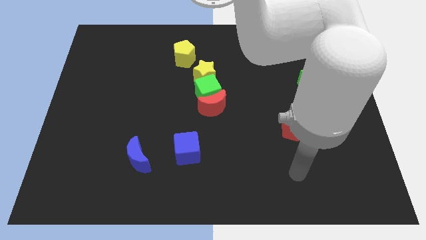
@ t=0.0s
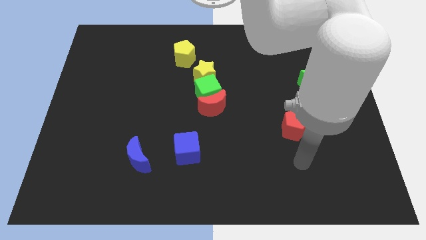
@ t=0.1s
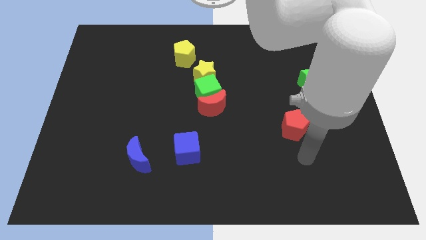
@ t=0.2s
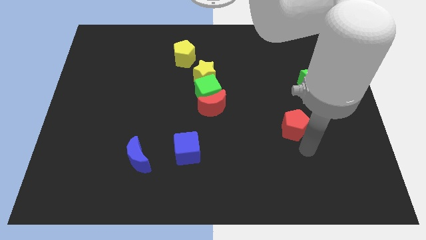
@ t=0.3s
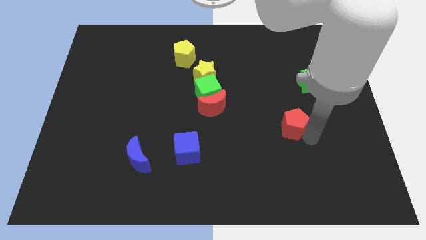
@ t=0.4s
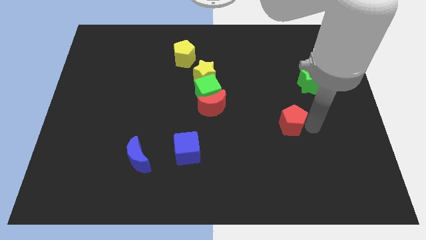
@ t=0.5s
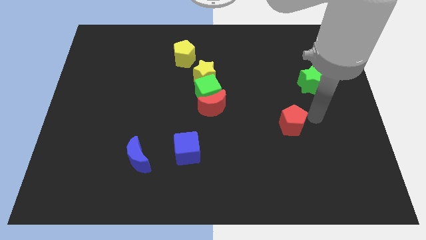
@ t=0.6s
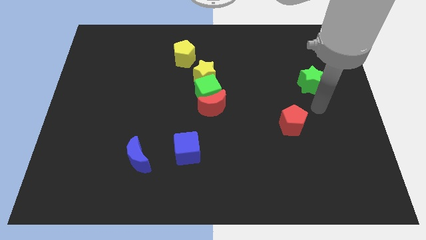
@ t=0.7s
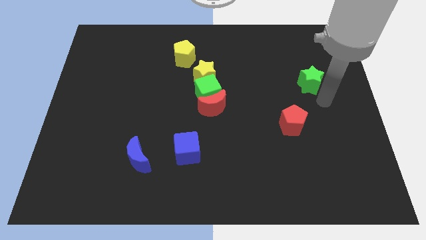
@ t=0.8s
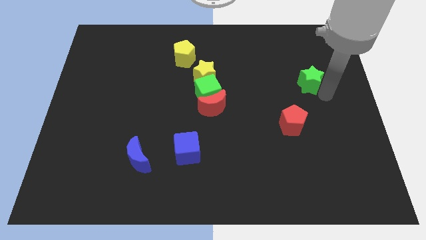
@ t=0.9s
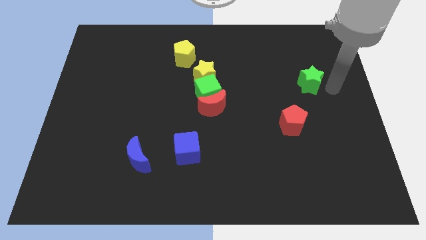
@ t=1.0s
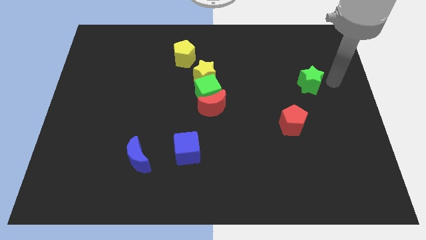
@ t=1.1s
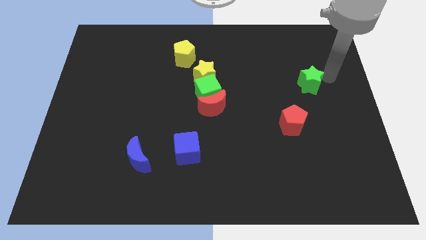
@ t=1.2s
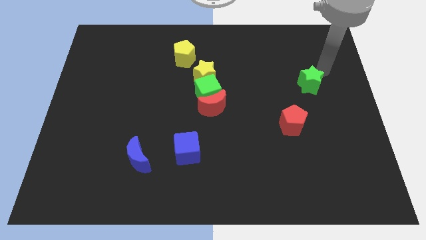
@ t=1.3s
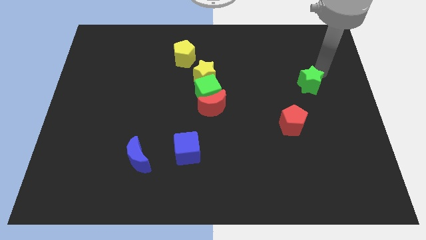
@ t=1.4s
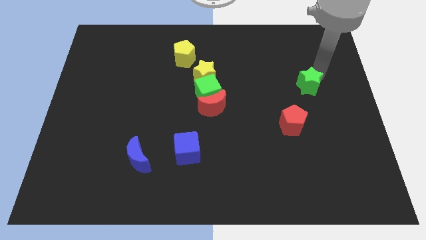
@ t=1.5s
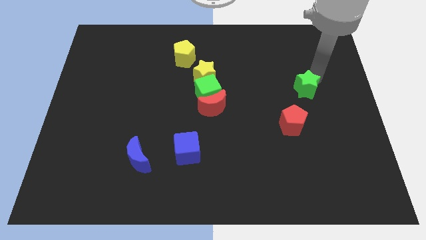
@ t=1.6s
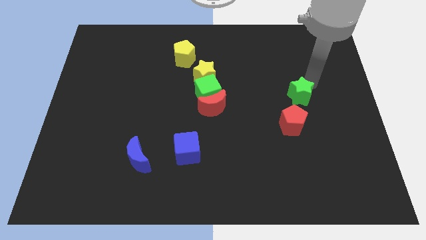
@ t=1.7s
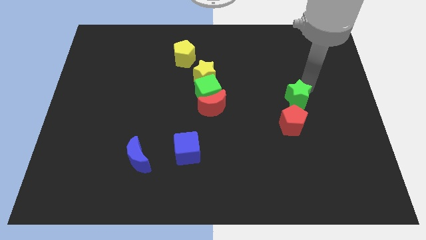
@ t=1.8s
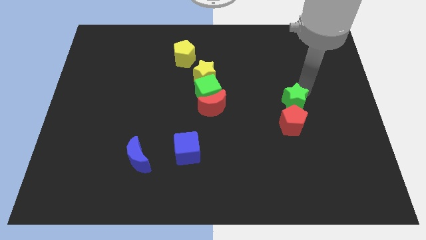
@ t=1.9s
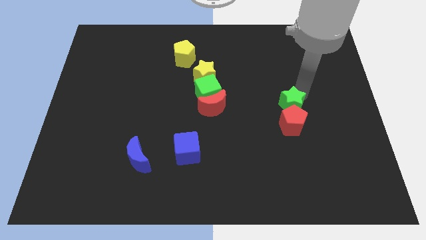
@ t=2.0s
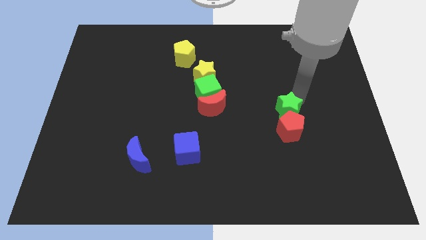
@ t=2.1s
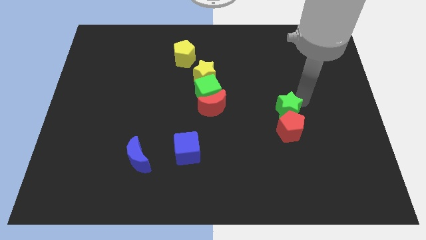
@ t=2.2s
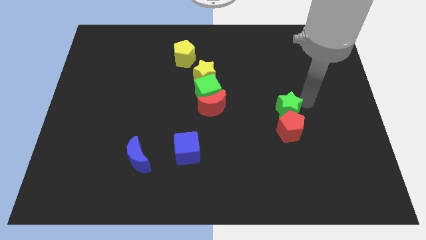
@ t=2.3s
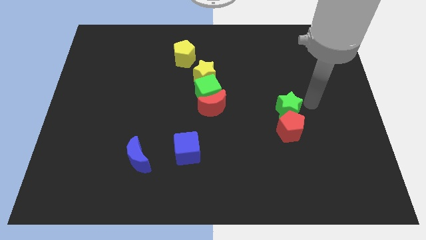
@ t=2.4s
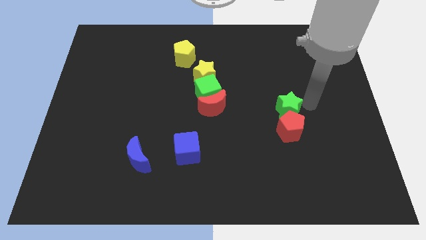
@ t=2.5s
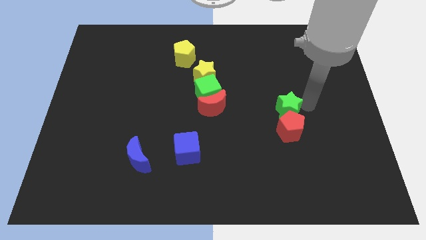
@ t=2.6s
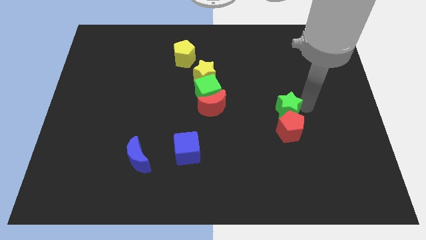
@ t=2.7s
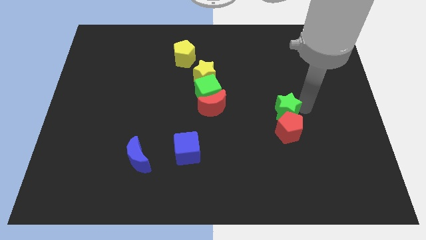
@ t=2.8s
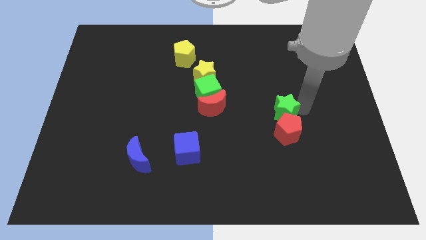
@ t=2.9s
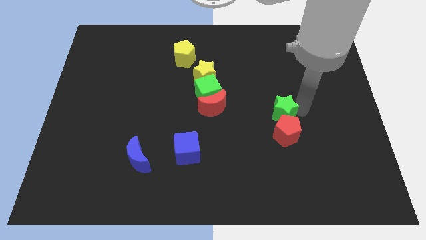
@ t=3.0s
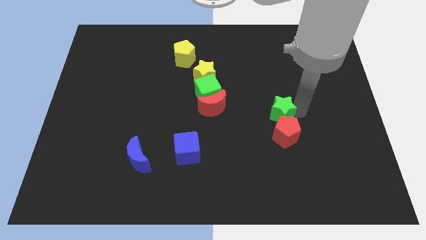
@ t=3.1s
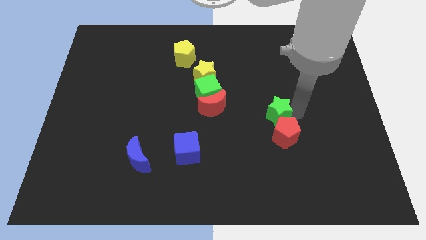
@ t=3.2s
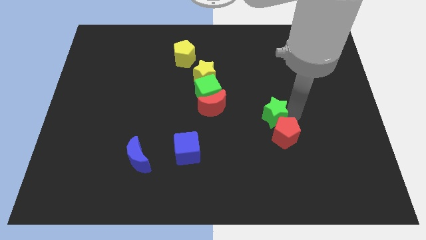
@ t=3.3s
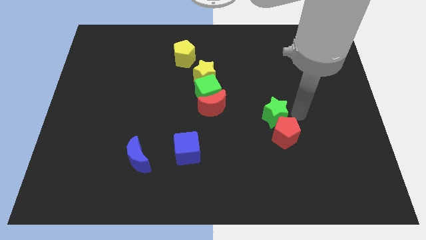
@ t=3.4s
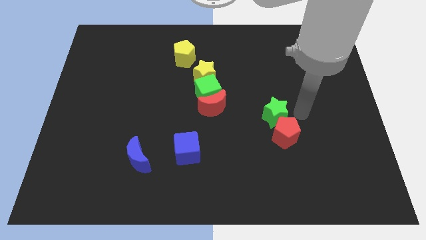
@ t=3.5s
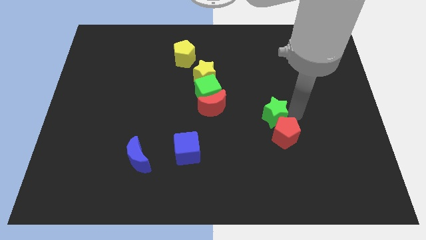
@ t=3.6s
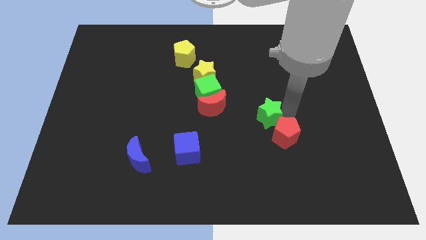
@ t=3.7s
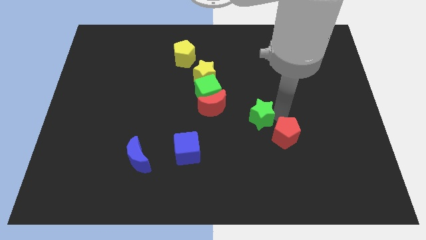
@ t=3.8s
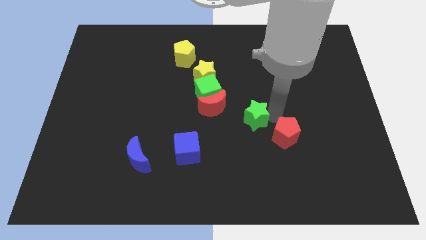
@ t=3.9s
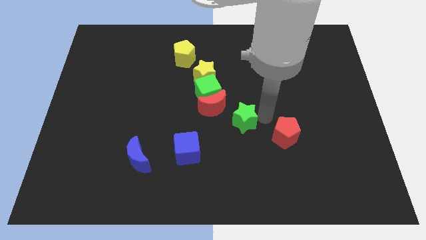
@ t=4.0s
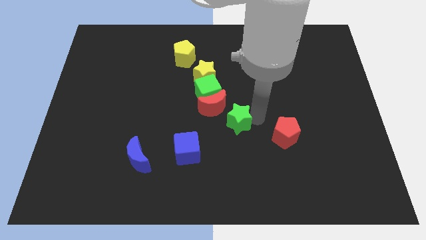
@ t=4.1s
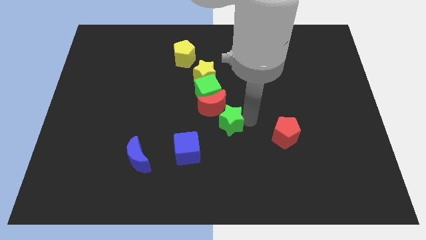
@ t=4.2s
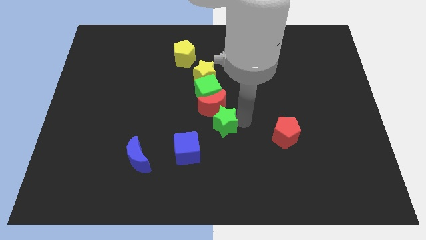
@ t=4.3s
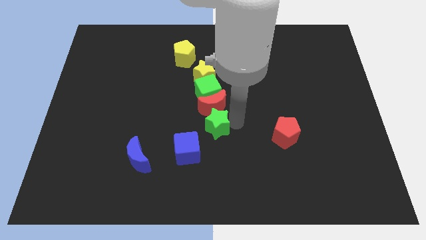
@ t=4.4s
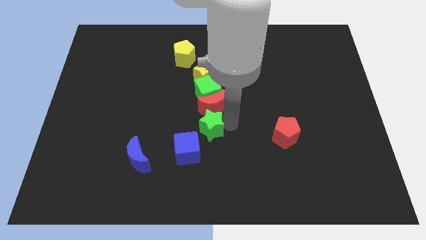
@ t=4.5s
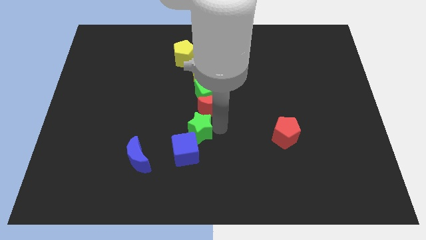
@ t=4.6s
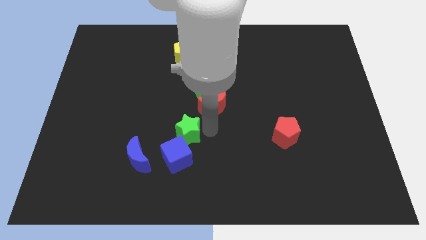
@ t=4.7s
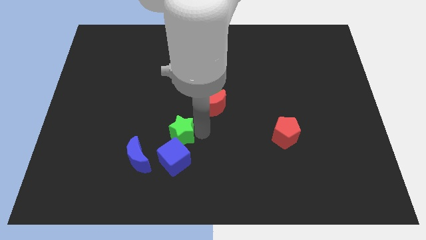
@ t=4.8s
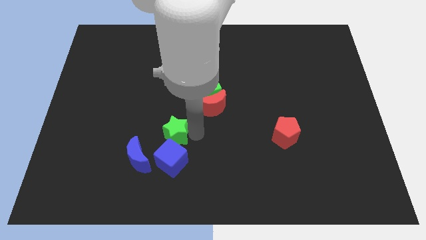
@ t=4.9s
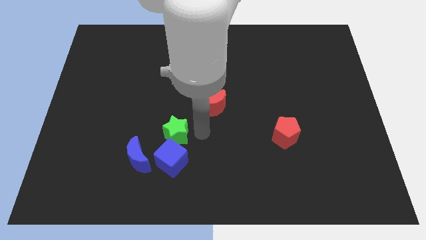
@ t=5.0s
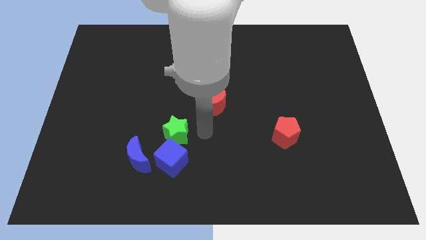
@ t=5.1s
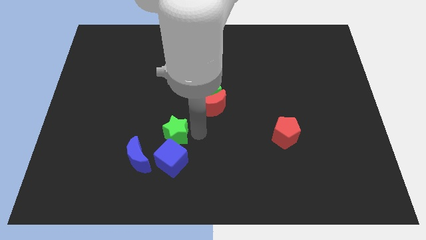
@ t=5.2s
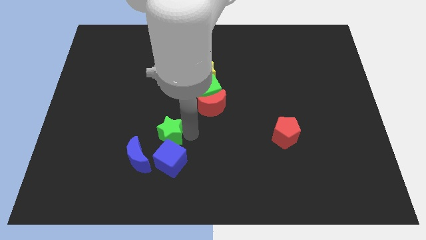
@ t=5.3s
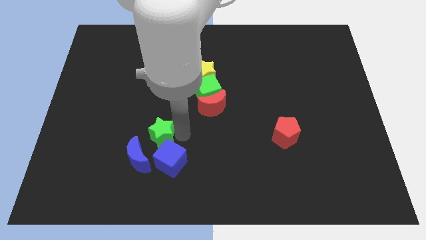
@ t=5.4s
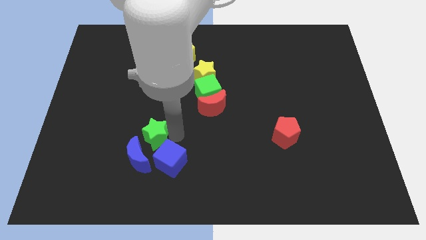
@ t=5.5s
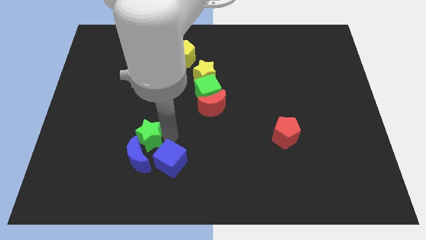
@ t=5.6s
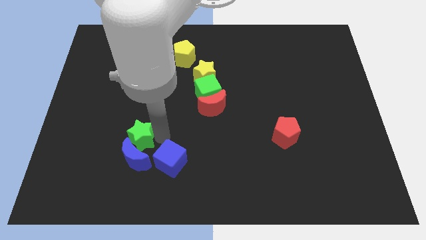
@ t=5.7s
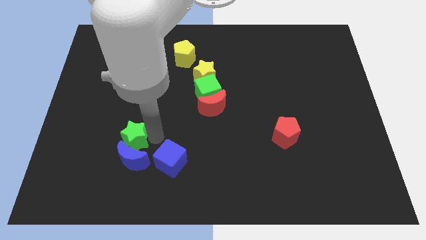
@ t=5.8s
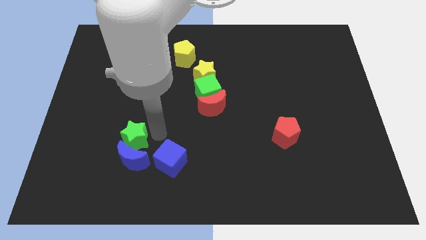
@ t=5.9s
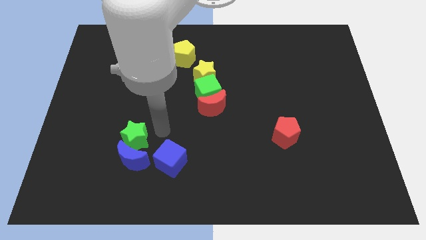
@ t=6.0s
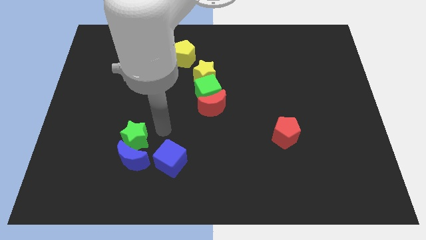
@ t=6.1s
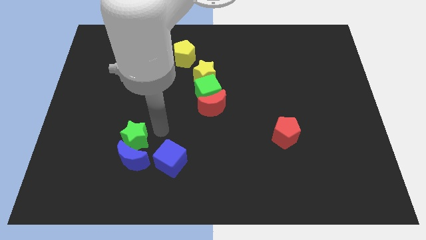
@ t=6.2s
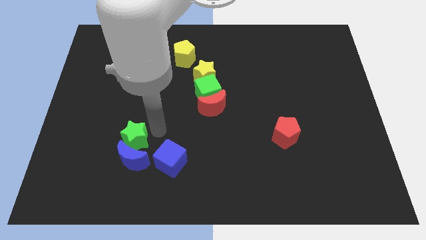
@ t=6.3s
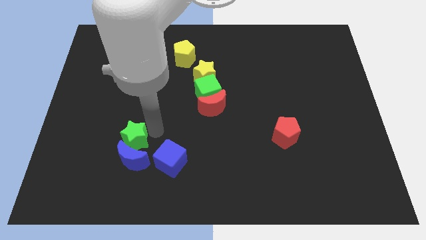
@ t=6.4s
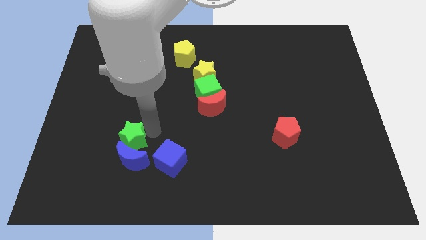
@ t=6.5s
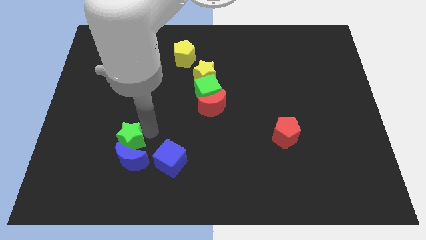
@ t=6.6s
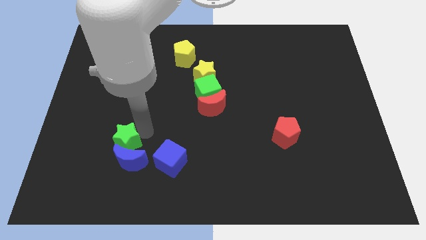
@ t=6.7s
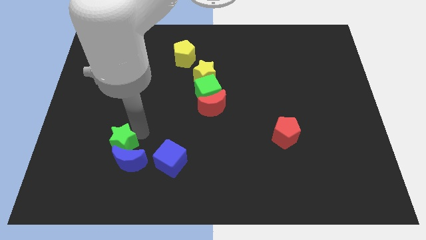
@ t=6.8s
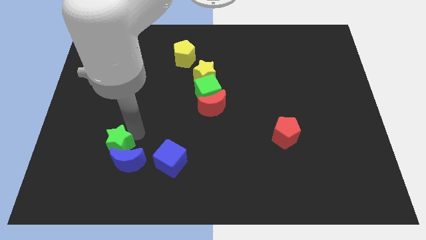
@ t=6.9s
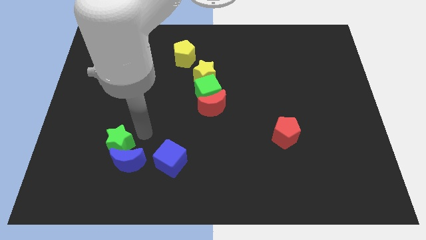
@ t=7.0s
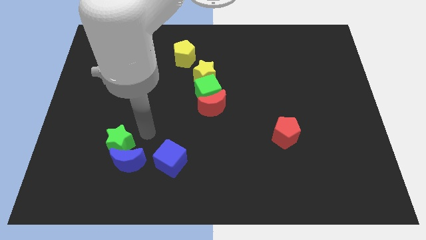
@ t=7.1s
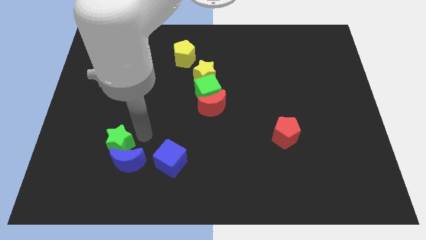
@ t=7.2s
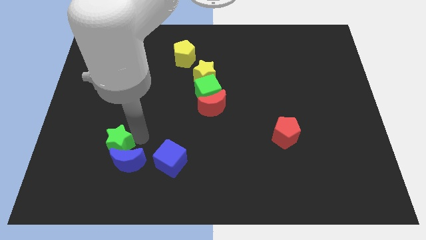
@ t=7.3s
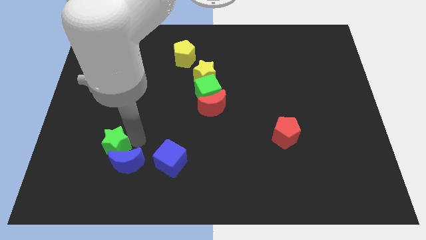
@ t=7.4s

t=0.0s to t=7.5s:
slide the green star to the left side of the blue moon

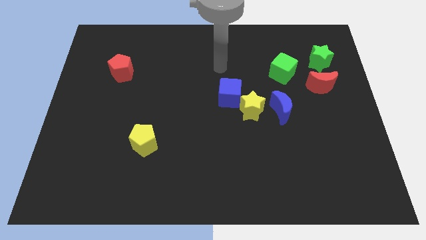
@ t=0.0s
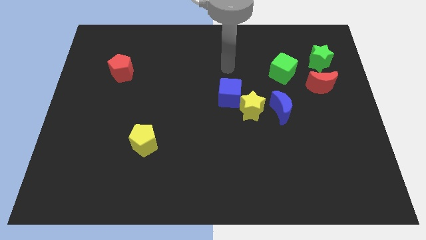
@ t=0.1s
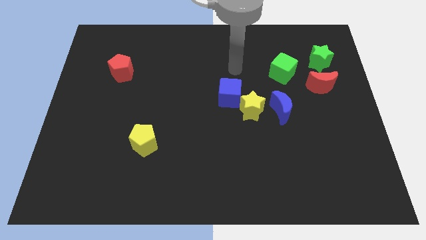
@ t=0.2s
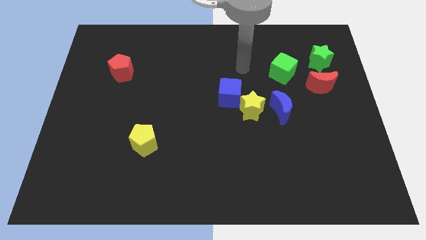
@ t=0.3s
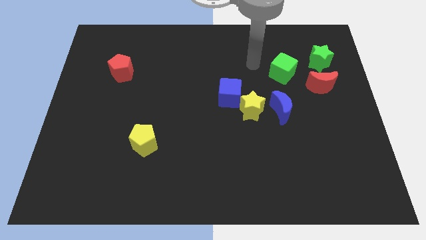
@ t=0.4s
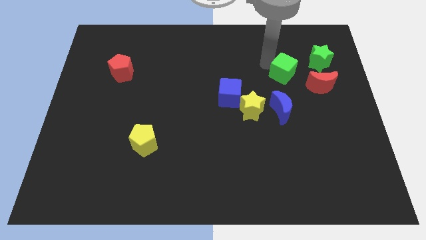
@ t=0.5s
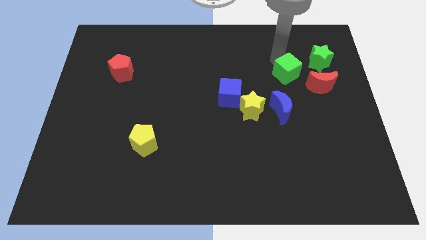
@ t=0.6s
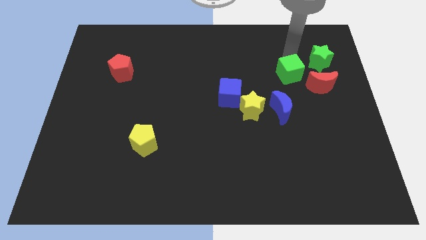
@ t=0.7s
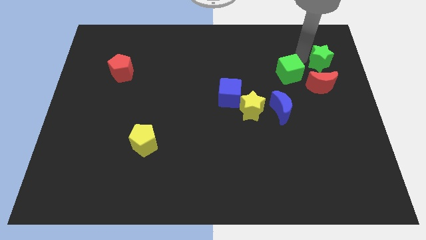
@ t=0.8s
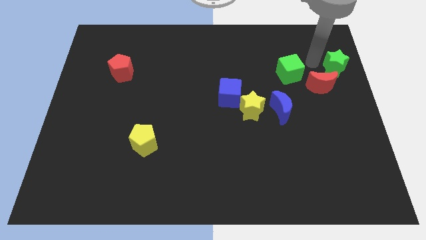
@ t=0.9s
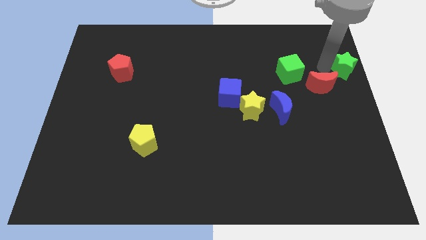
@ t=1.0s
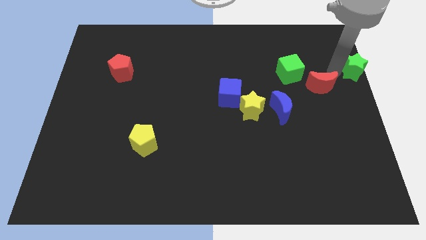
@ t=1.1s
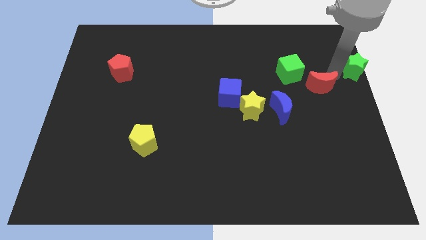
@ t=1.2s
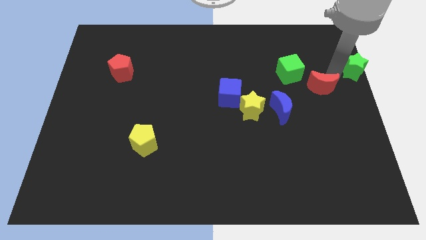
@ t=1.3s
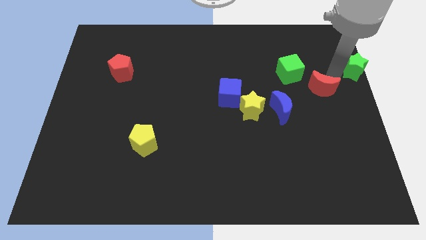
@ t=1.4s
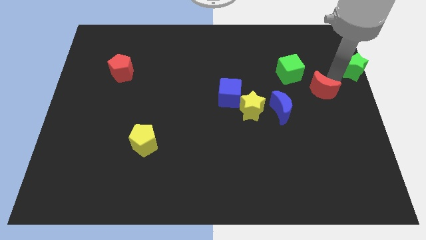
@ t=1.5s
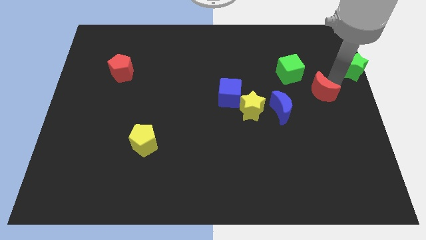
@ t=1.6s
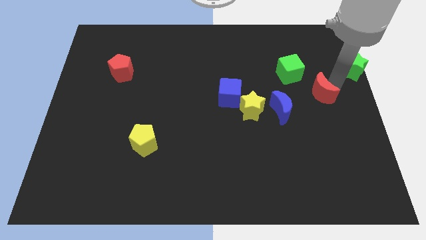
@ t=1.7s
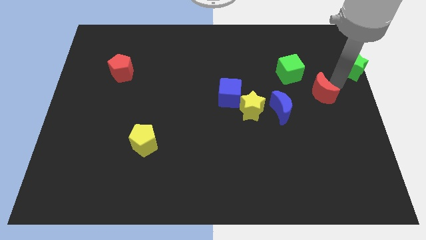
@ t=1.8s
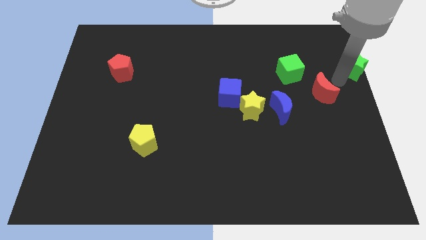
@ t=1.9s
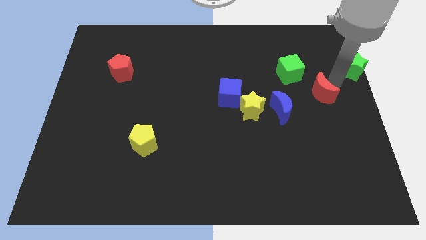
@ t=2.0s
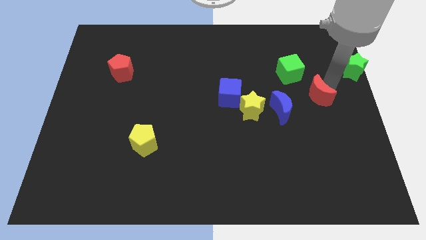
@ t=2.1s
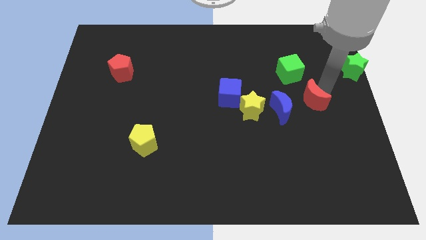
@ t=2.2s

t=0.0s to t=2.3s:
push the red moon just right of the yellow star
